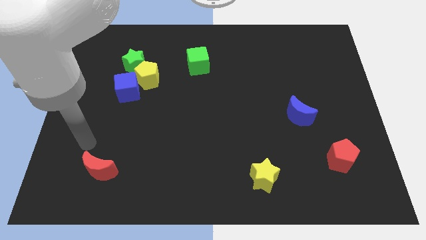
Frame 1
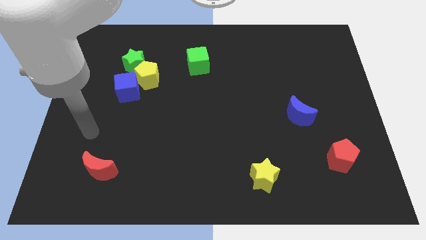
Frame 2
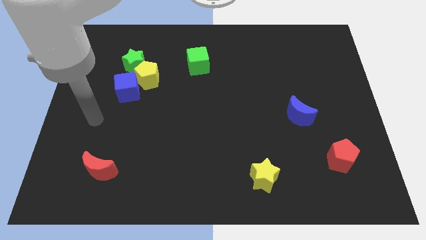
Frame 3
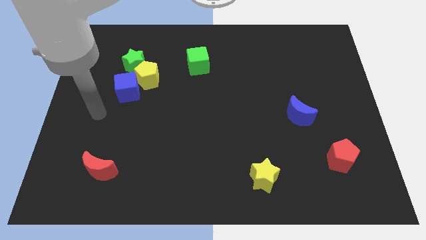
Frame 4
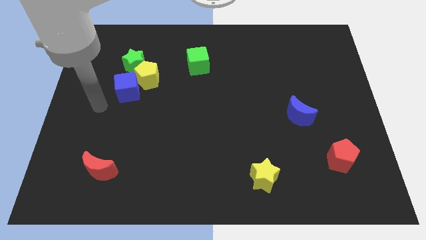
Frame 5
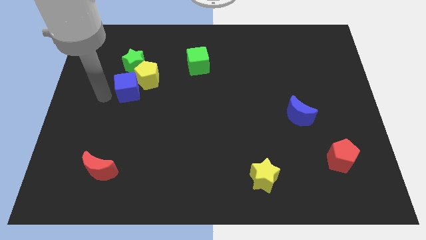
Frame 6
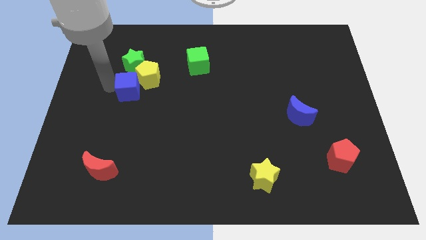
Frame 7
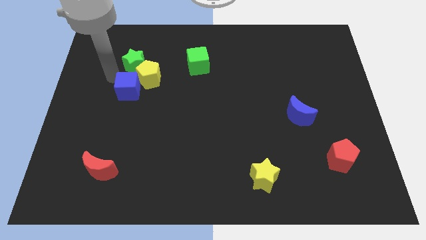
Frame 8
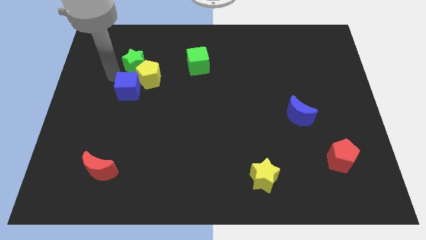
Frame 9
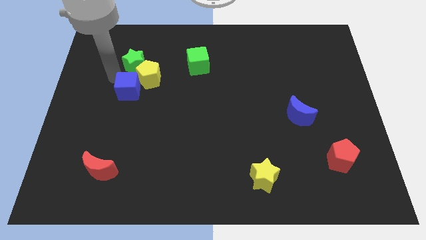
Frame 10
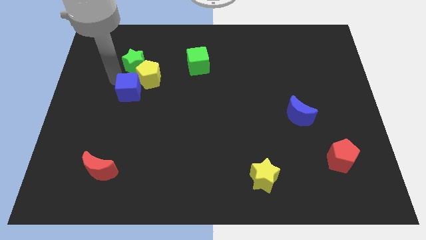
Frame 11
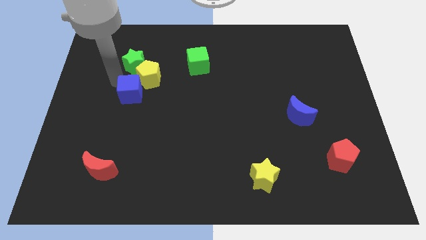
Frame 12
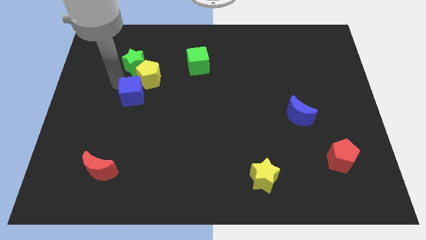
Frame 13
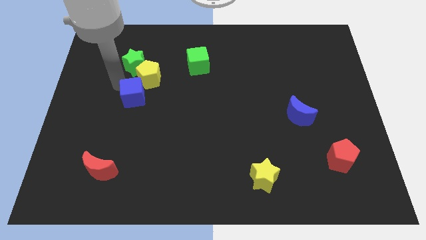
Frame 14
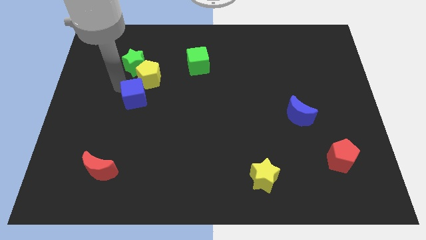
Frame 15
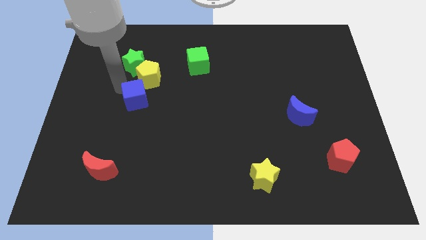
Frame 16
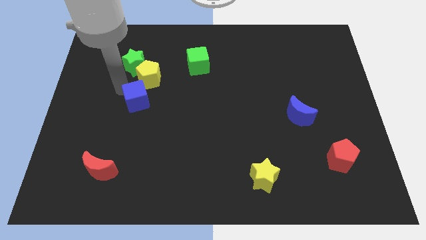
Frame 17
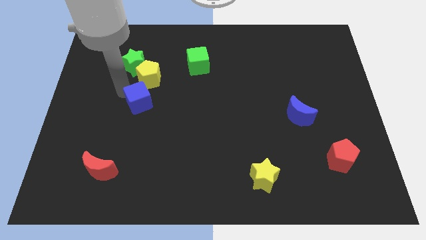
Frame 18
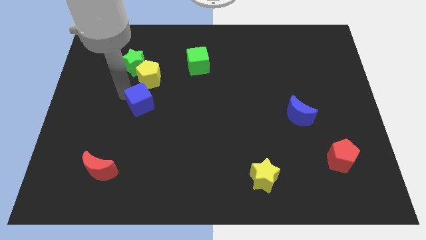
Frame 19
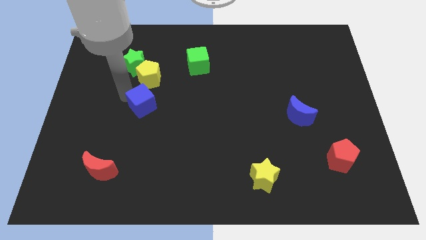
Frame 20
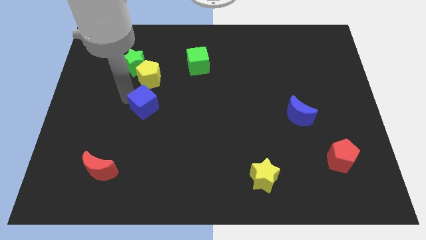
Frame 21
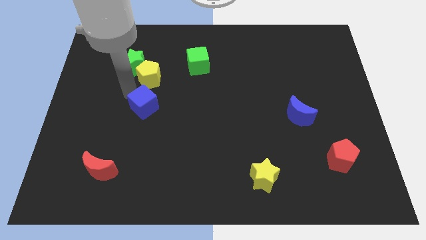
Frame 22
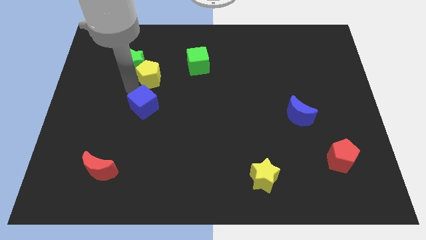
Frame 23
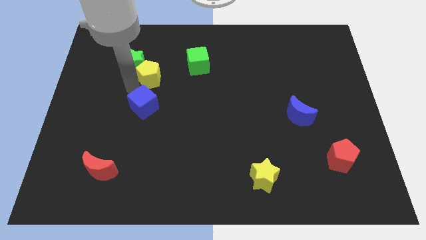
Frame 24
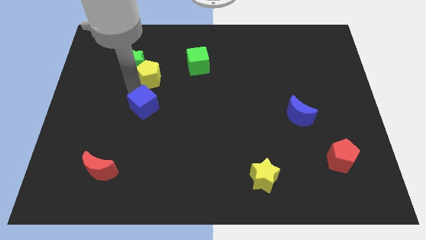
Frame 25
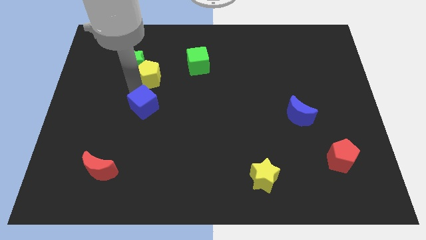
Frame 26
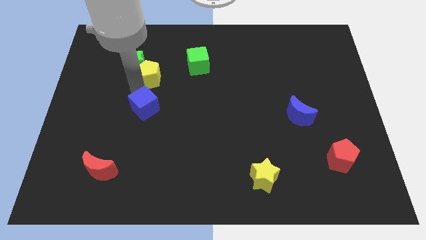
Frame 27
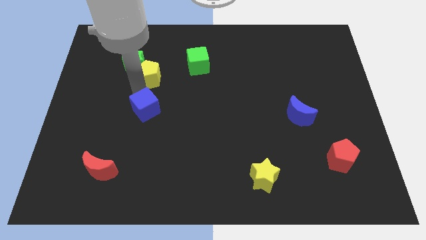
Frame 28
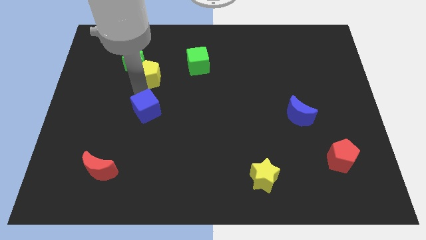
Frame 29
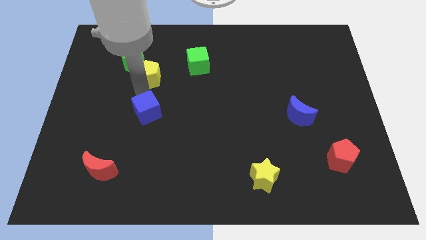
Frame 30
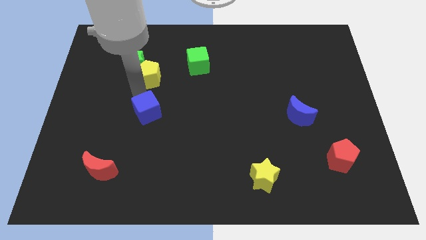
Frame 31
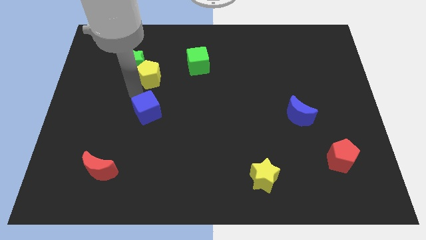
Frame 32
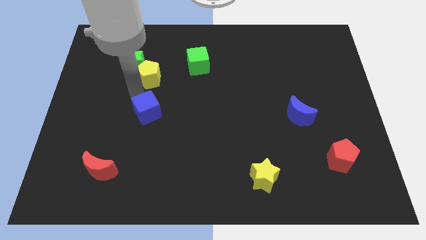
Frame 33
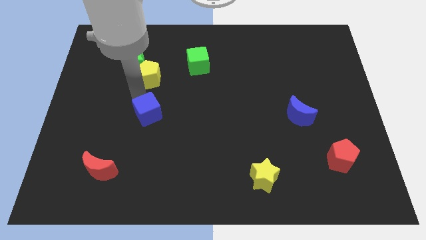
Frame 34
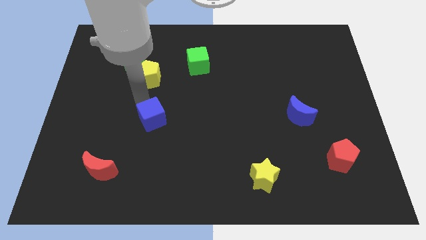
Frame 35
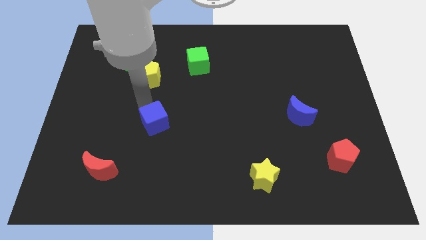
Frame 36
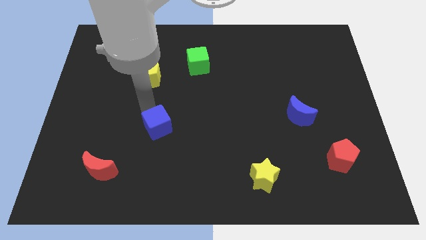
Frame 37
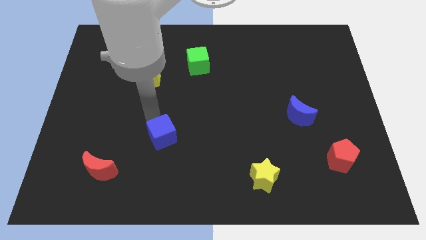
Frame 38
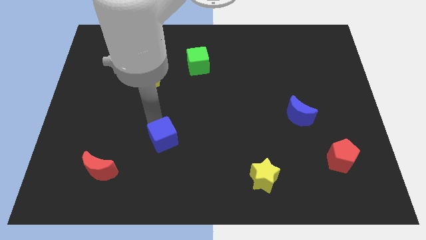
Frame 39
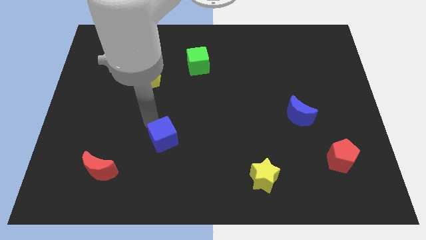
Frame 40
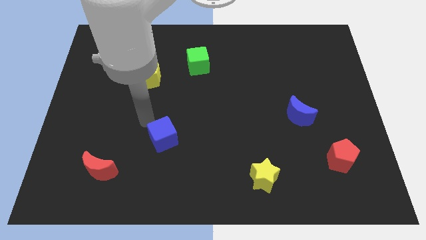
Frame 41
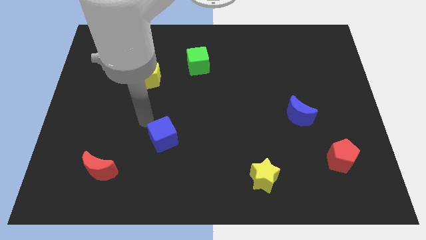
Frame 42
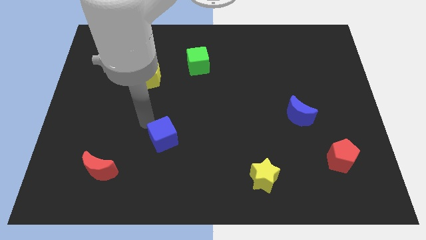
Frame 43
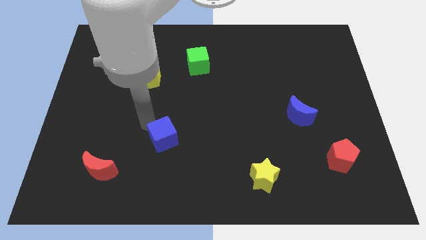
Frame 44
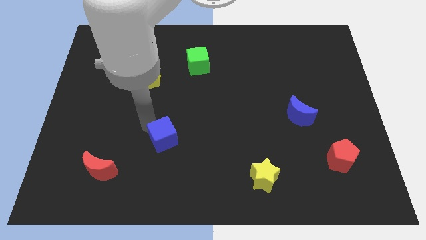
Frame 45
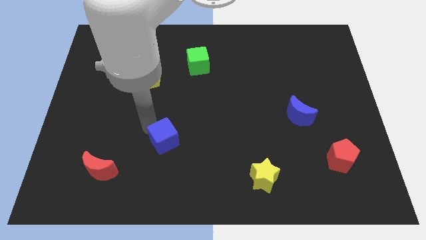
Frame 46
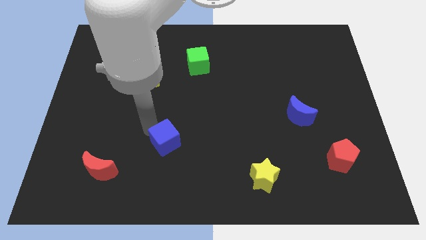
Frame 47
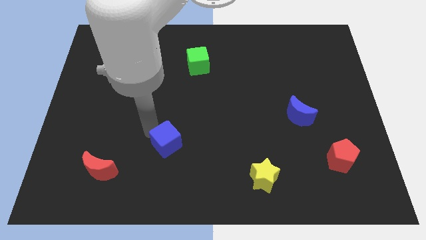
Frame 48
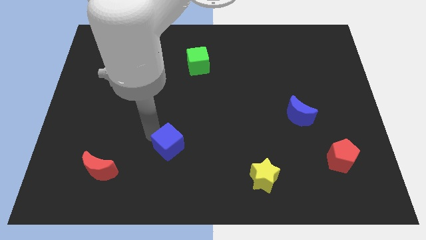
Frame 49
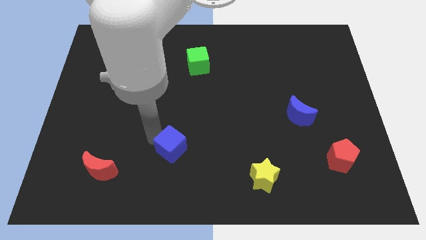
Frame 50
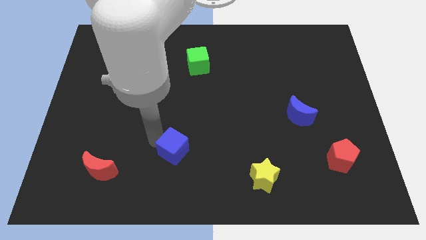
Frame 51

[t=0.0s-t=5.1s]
slide the blue cube down and to the right diagonally

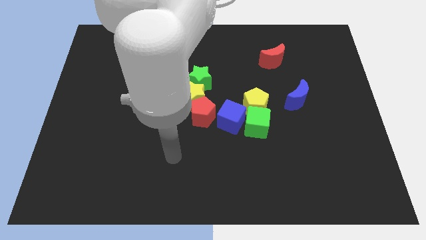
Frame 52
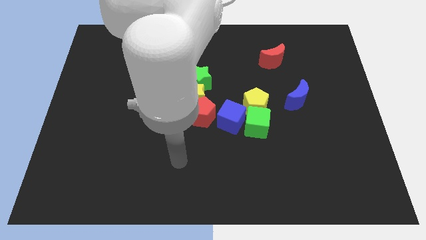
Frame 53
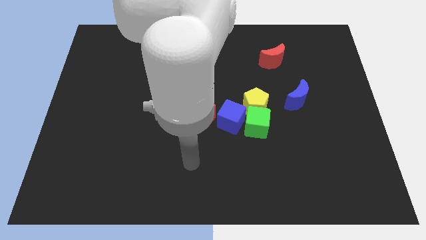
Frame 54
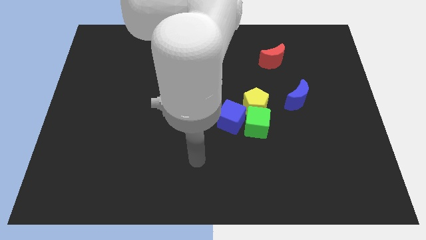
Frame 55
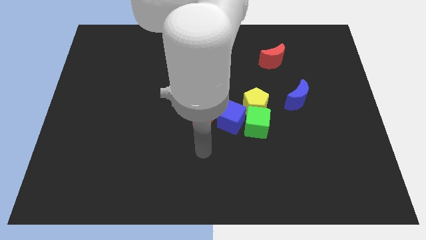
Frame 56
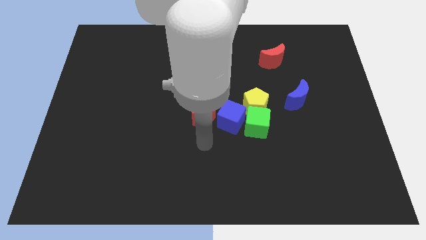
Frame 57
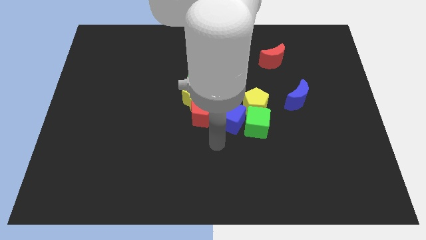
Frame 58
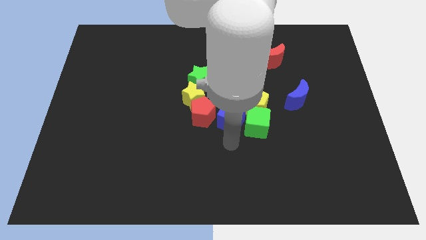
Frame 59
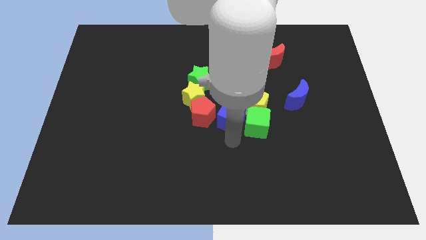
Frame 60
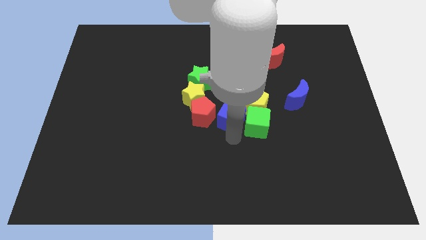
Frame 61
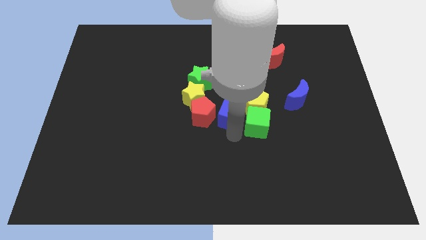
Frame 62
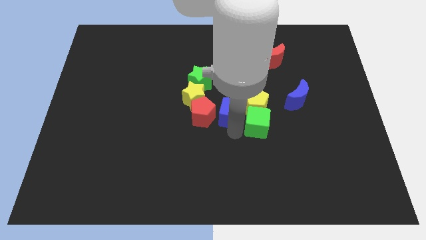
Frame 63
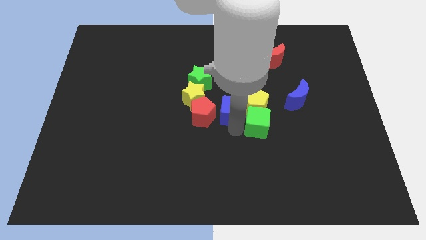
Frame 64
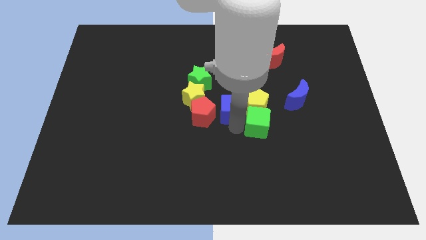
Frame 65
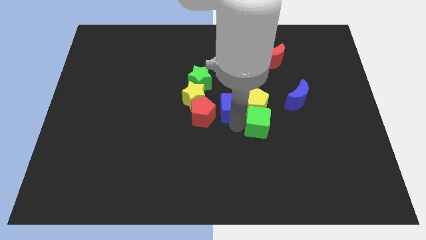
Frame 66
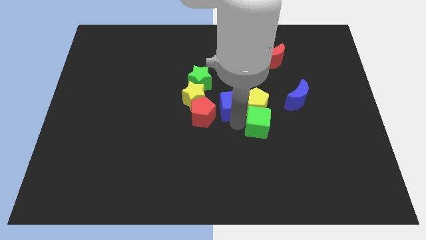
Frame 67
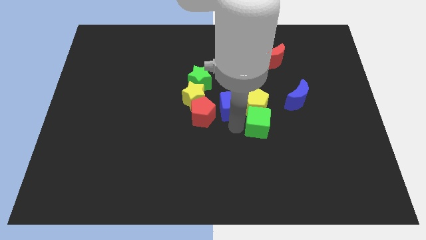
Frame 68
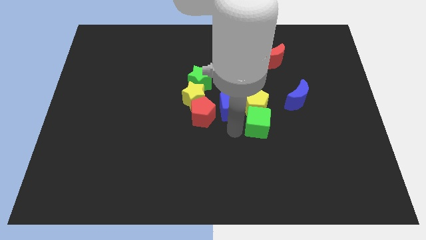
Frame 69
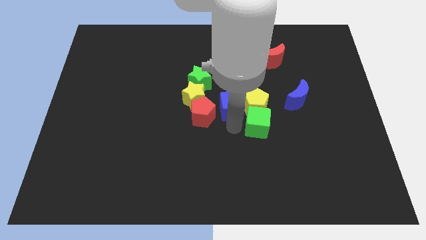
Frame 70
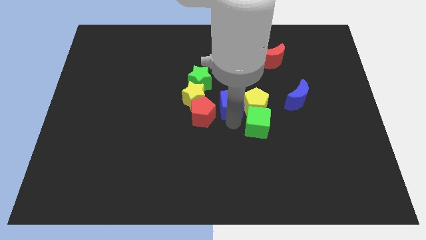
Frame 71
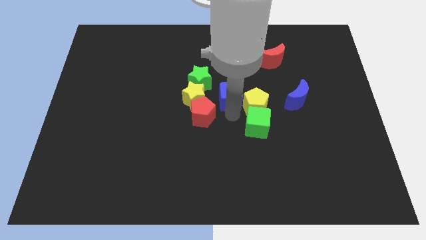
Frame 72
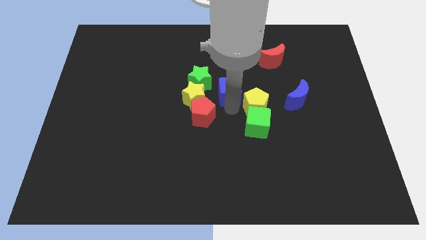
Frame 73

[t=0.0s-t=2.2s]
move the blue cube up a little

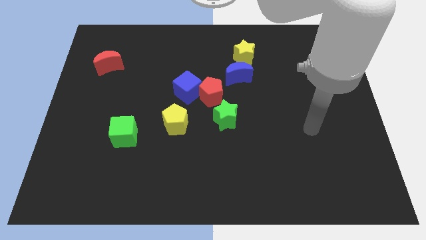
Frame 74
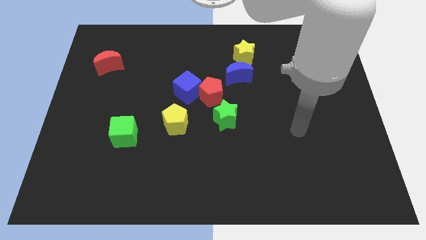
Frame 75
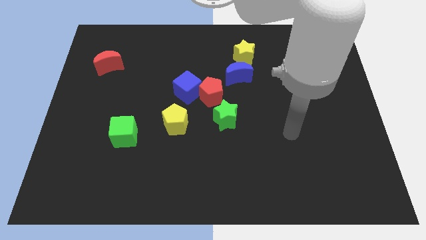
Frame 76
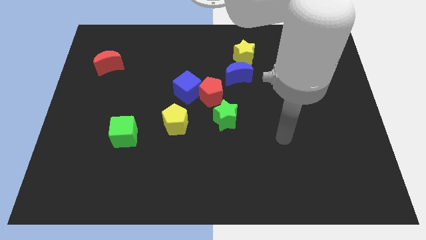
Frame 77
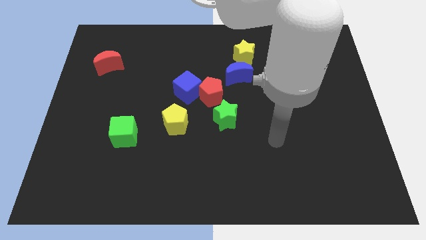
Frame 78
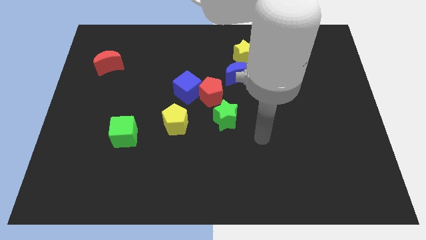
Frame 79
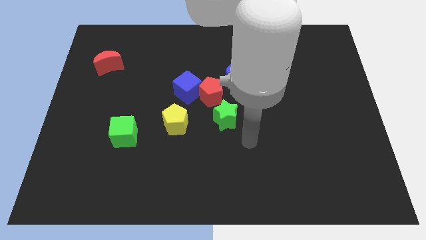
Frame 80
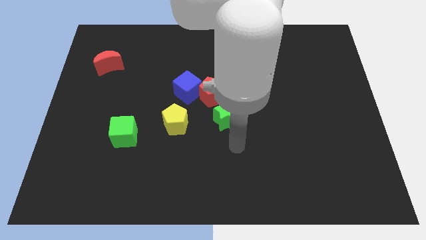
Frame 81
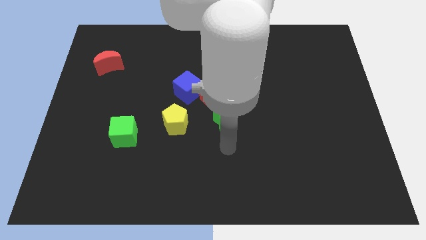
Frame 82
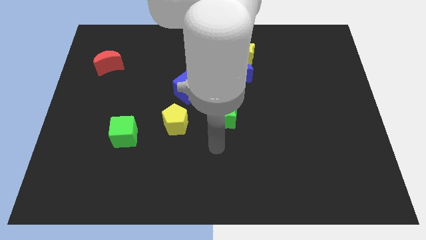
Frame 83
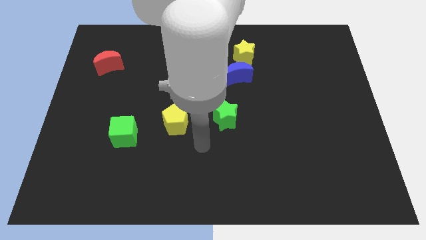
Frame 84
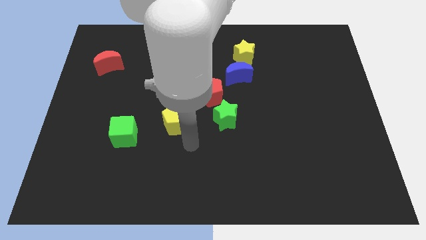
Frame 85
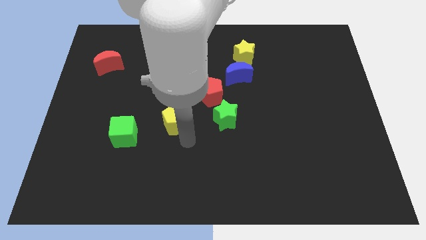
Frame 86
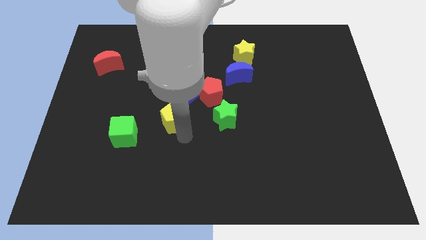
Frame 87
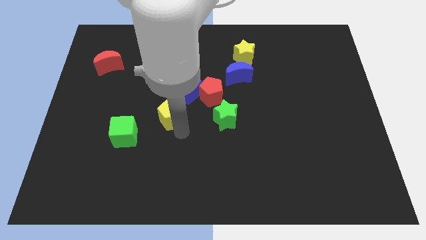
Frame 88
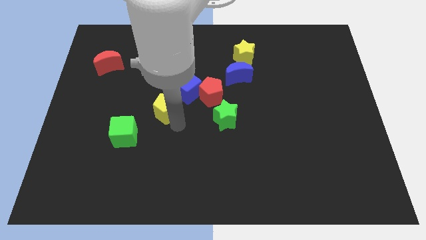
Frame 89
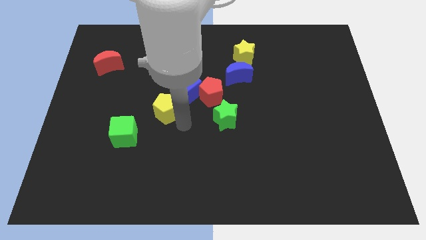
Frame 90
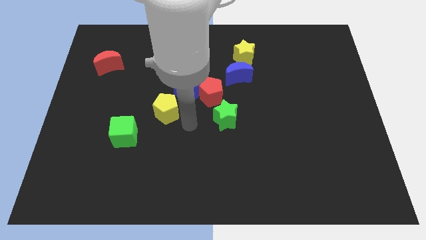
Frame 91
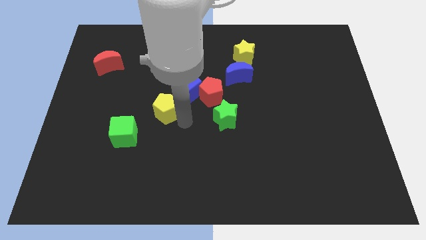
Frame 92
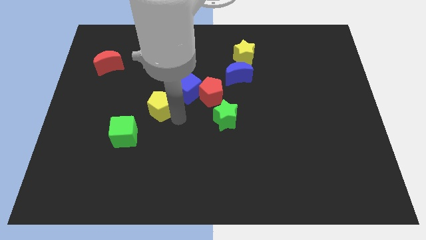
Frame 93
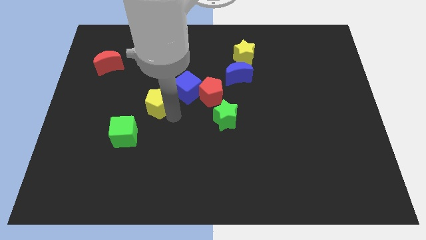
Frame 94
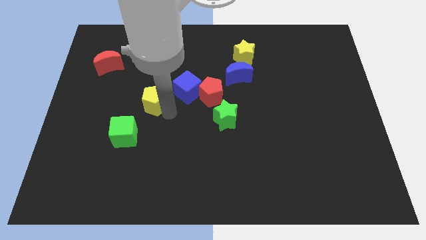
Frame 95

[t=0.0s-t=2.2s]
slide the yellow pentagon up and left diagonally somewhat
